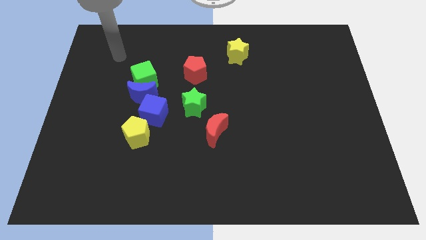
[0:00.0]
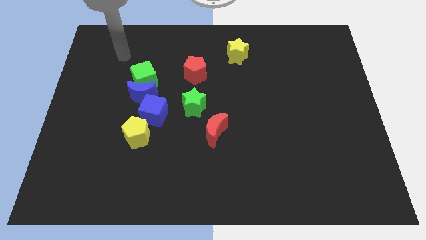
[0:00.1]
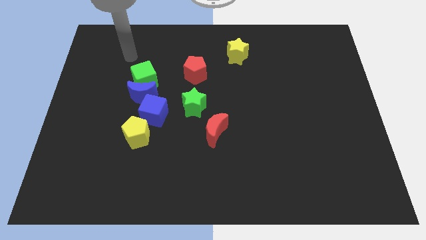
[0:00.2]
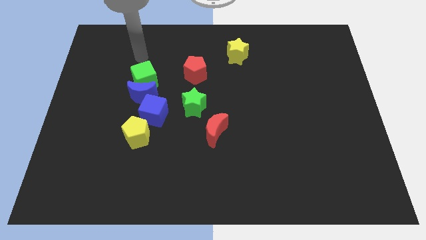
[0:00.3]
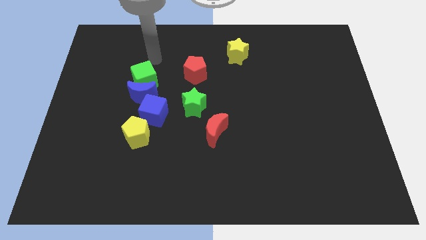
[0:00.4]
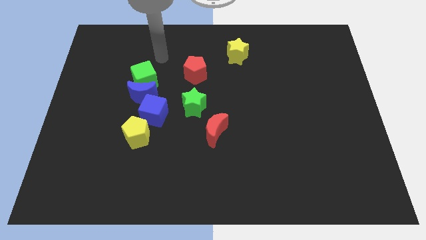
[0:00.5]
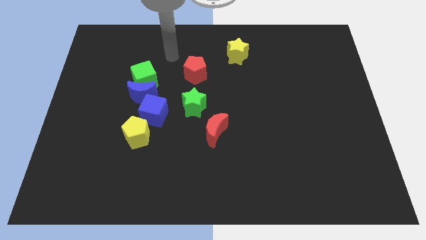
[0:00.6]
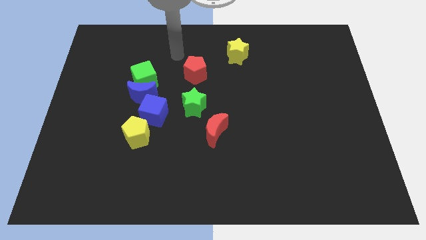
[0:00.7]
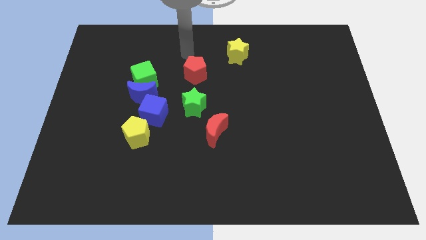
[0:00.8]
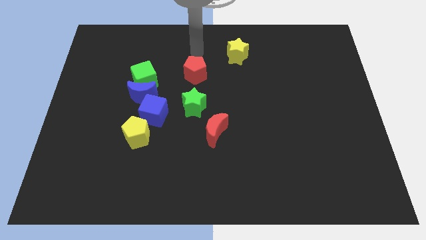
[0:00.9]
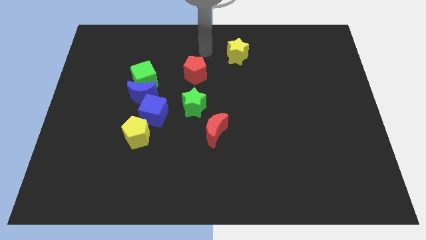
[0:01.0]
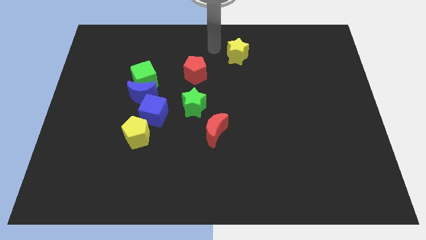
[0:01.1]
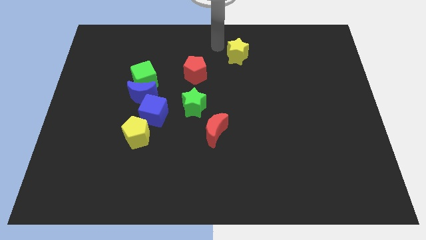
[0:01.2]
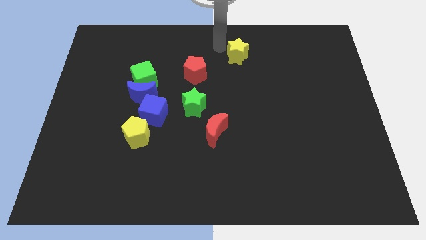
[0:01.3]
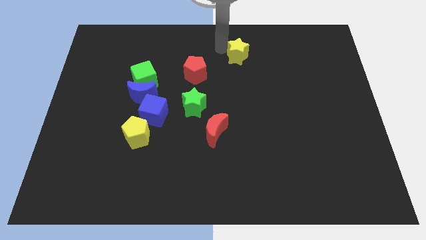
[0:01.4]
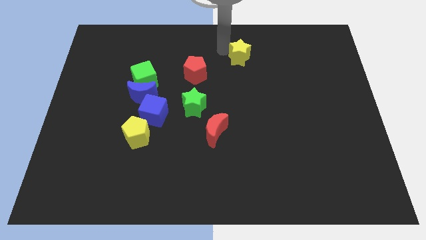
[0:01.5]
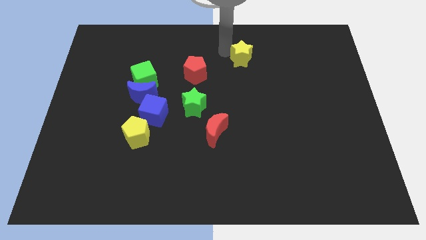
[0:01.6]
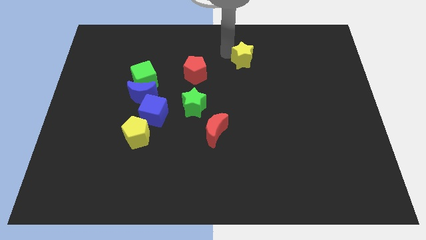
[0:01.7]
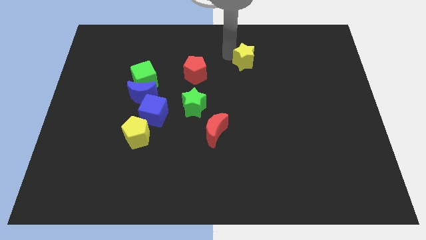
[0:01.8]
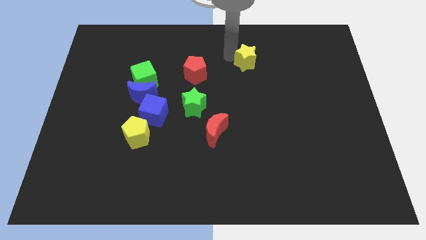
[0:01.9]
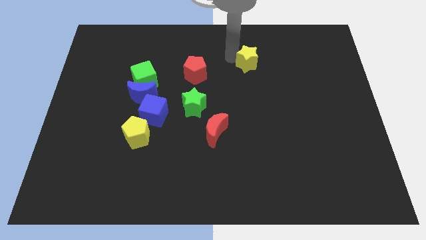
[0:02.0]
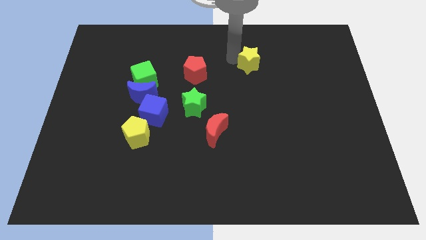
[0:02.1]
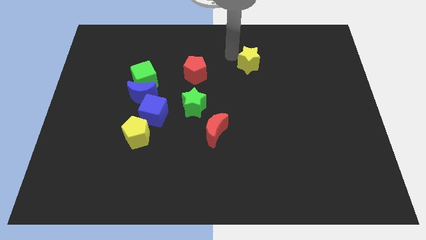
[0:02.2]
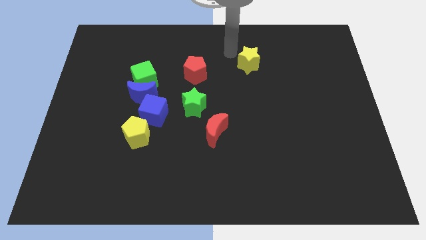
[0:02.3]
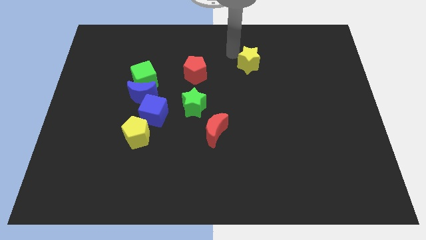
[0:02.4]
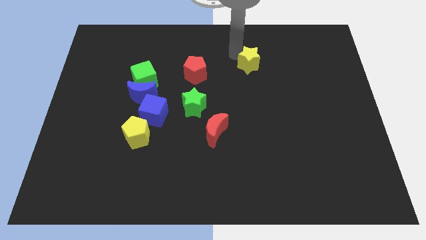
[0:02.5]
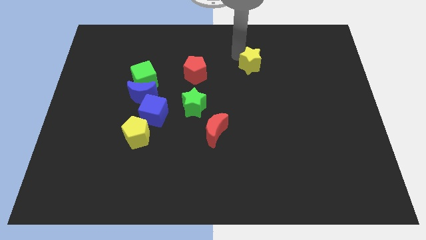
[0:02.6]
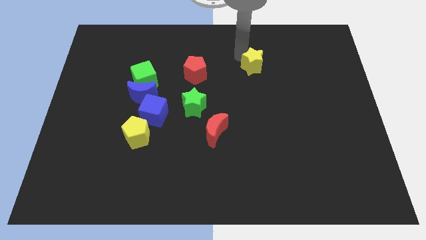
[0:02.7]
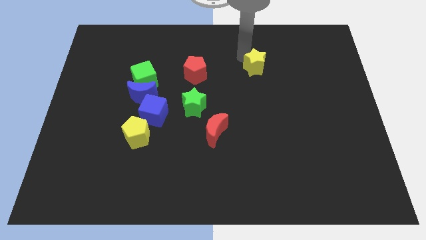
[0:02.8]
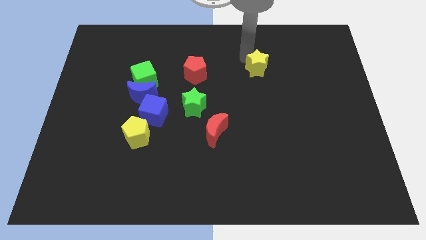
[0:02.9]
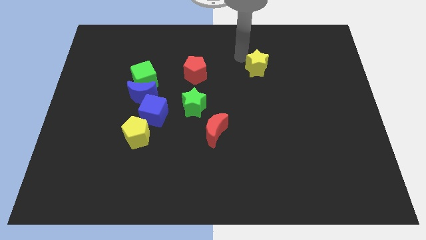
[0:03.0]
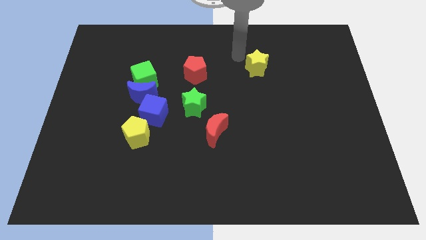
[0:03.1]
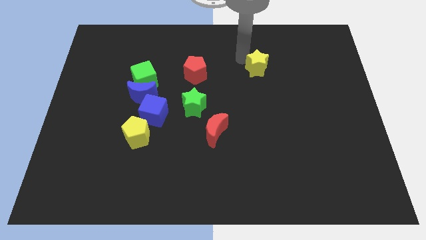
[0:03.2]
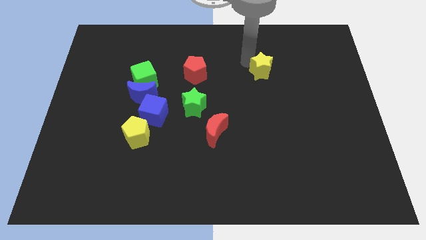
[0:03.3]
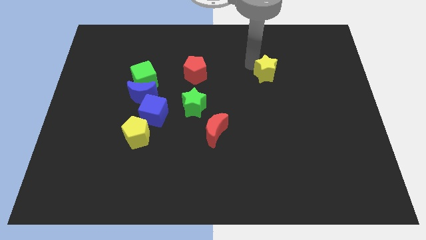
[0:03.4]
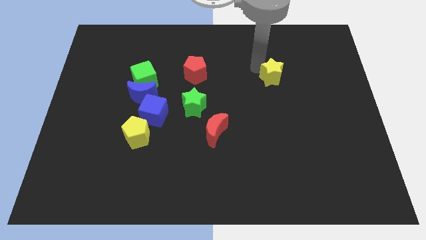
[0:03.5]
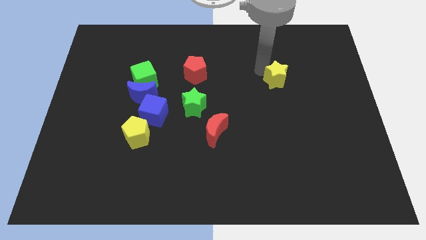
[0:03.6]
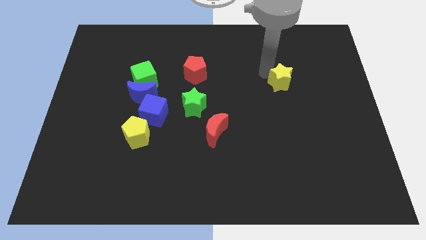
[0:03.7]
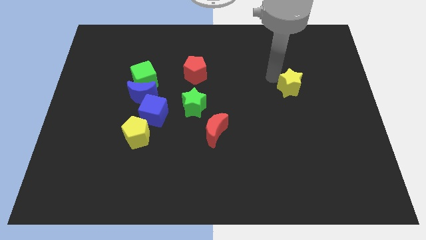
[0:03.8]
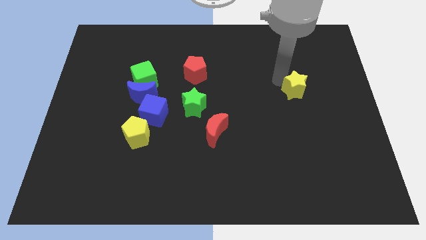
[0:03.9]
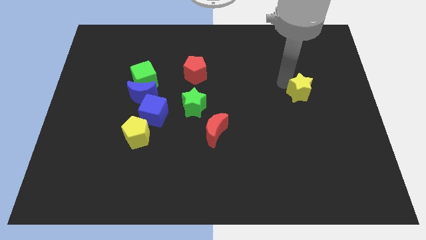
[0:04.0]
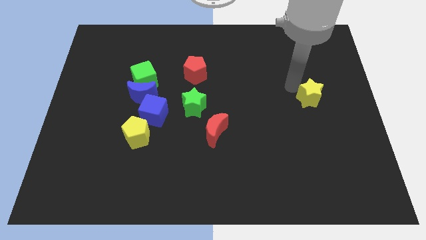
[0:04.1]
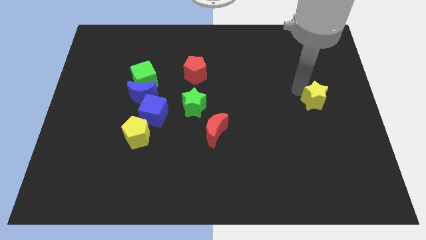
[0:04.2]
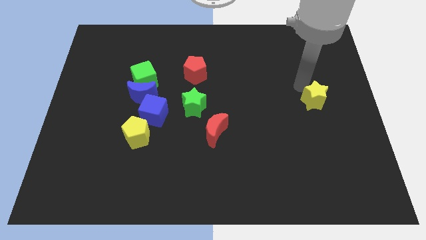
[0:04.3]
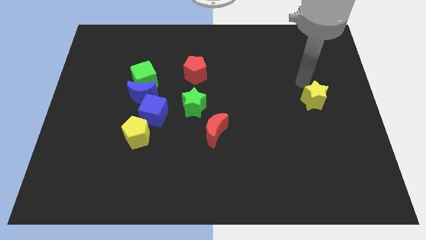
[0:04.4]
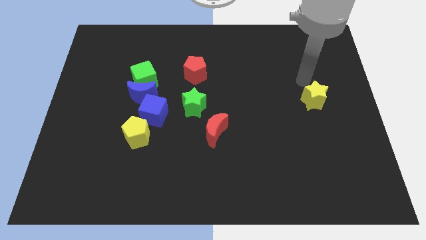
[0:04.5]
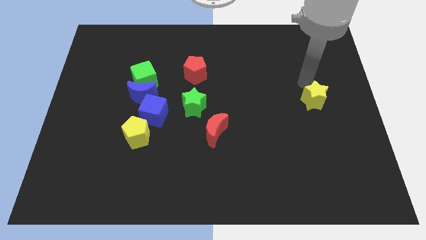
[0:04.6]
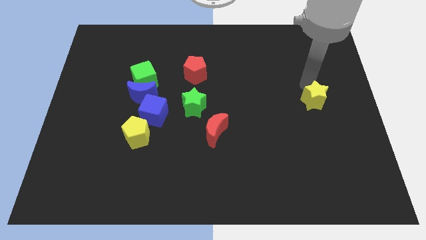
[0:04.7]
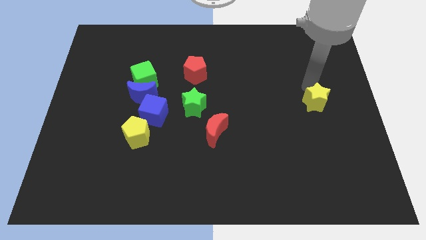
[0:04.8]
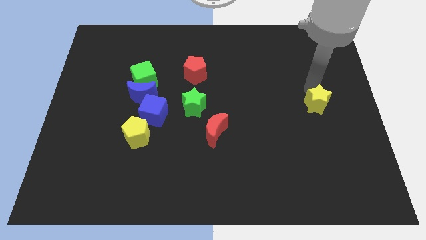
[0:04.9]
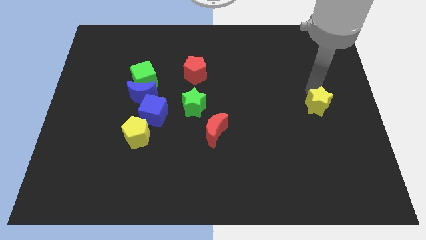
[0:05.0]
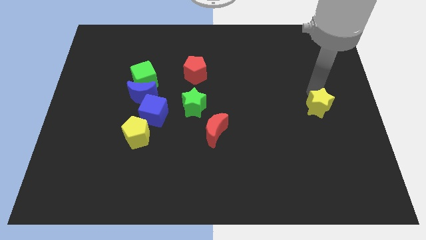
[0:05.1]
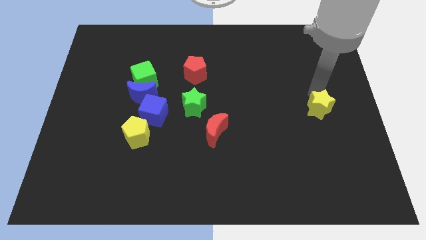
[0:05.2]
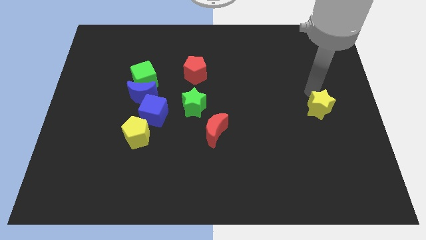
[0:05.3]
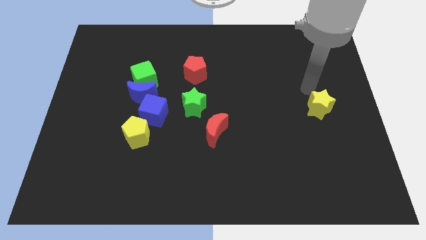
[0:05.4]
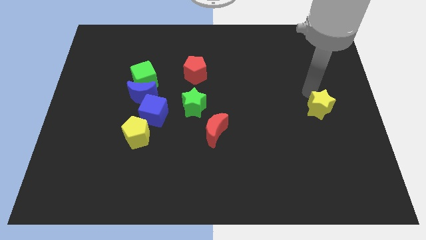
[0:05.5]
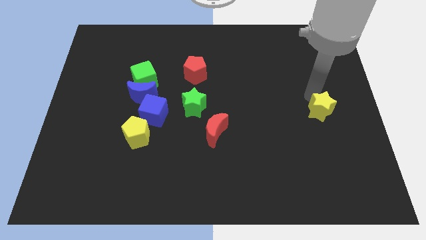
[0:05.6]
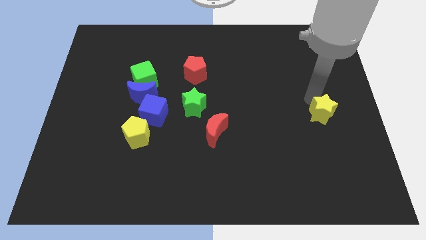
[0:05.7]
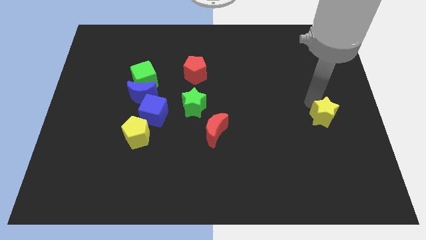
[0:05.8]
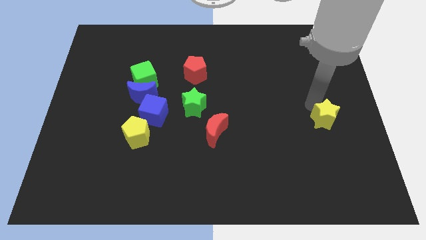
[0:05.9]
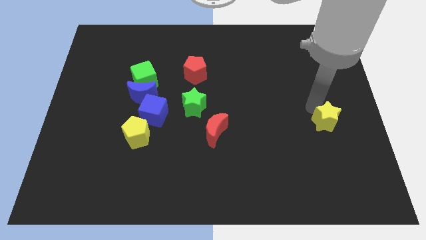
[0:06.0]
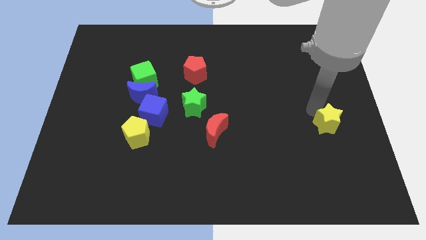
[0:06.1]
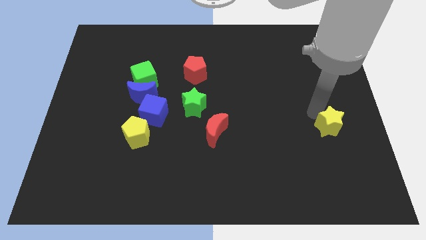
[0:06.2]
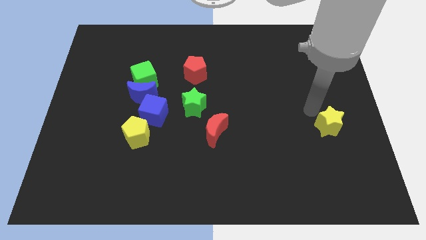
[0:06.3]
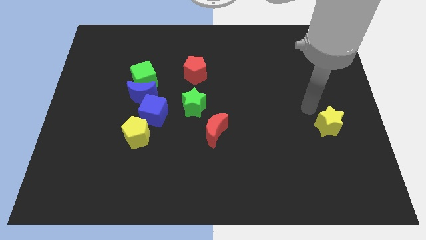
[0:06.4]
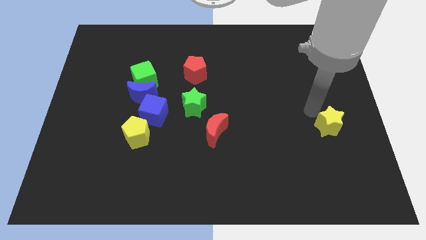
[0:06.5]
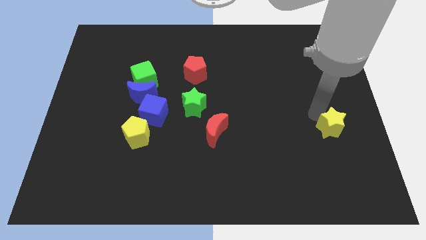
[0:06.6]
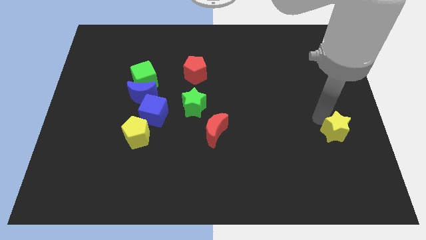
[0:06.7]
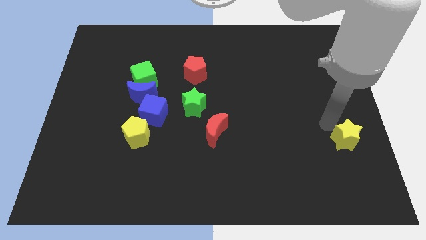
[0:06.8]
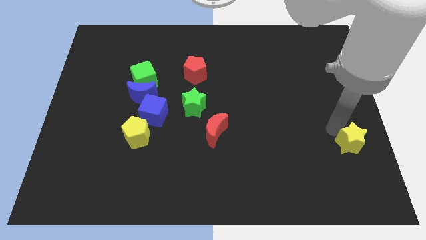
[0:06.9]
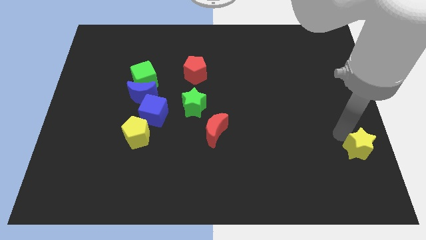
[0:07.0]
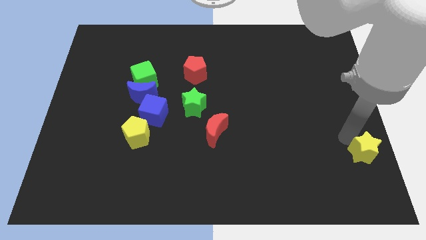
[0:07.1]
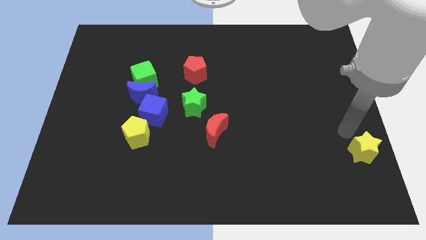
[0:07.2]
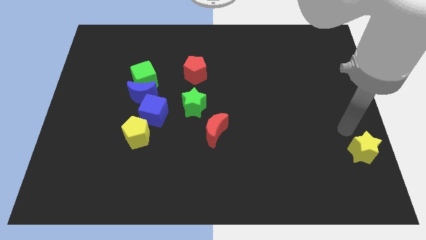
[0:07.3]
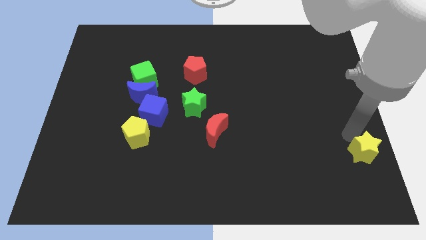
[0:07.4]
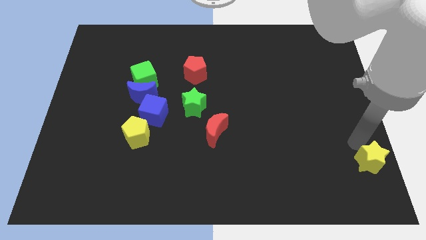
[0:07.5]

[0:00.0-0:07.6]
move the yellow star to the bottom right of the board
